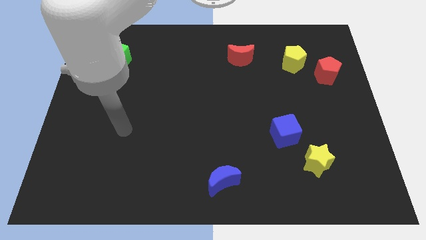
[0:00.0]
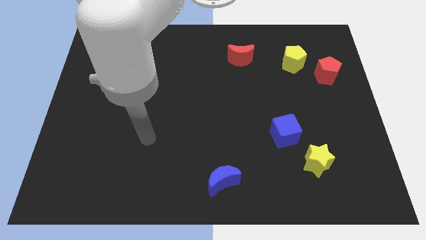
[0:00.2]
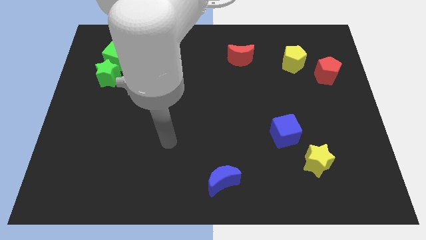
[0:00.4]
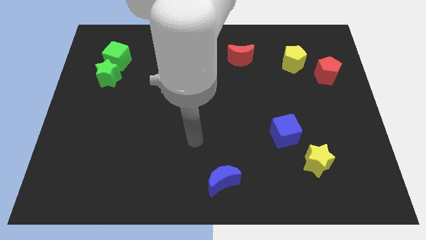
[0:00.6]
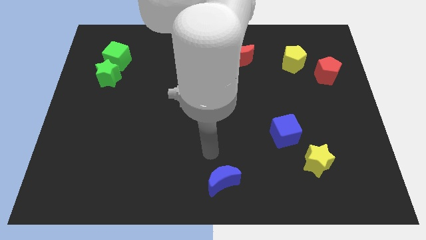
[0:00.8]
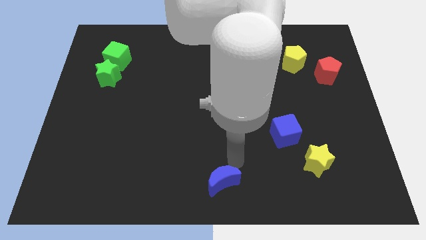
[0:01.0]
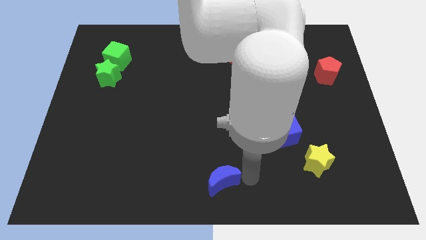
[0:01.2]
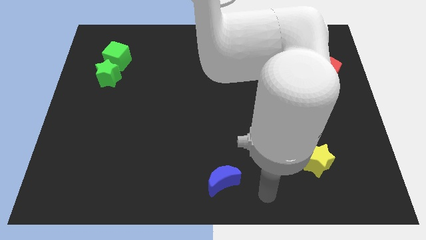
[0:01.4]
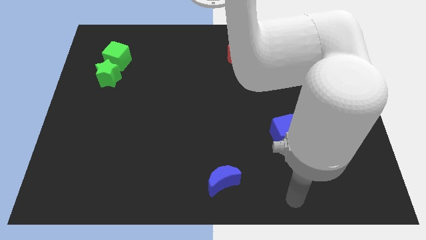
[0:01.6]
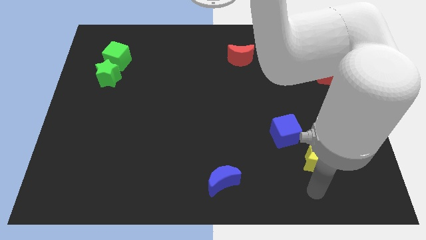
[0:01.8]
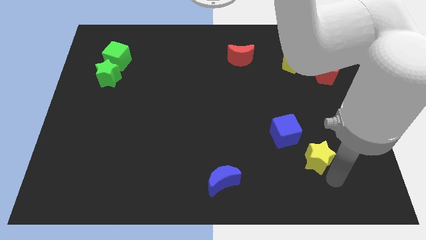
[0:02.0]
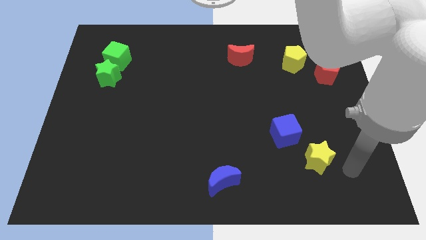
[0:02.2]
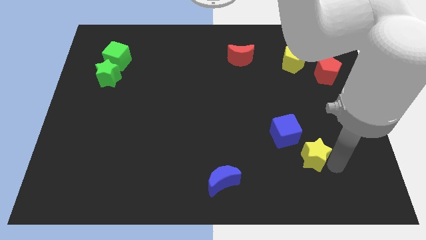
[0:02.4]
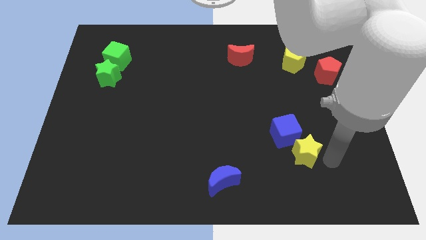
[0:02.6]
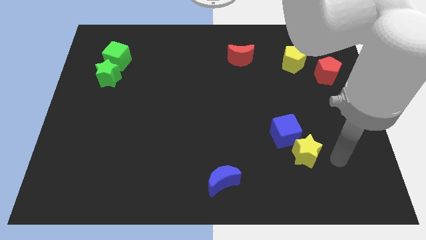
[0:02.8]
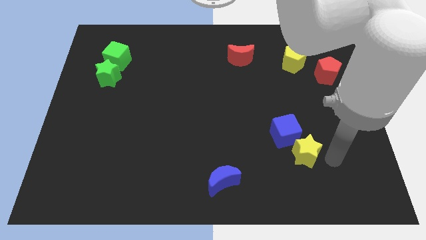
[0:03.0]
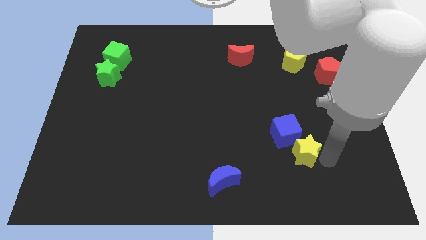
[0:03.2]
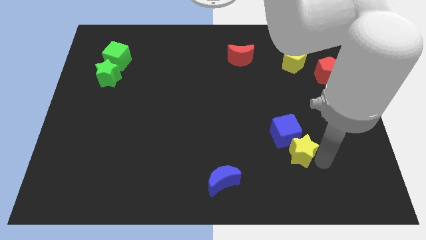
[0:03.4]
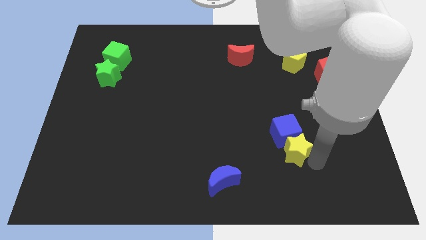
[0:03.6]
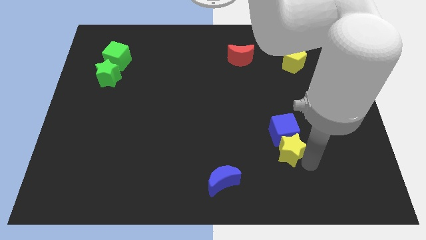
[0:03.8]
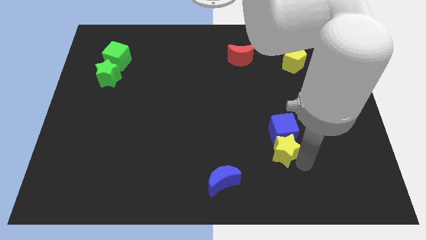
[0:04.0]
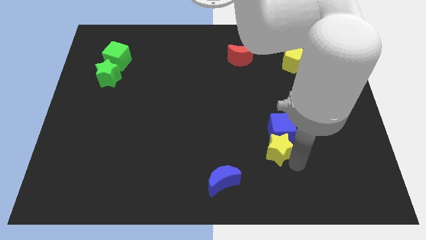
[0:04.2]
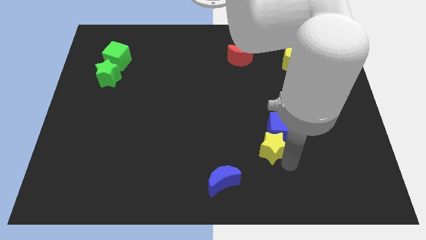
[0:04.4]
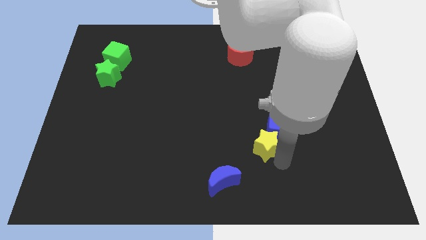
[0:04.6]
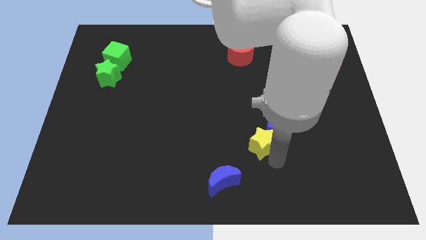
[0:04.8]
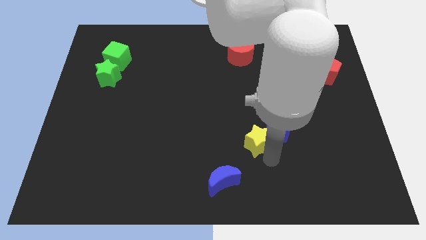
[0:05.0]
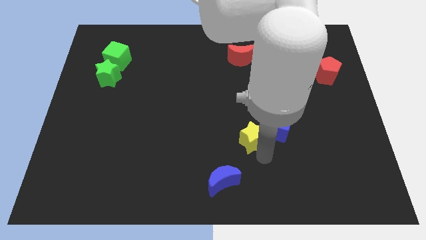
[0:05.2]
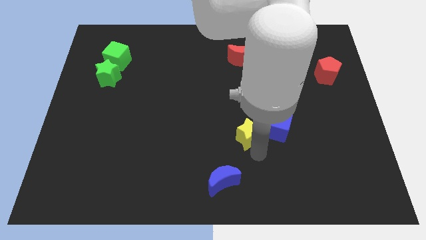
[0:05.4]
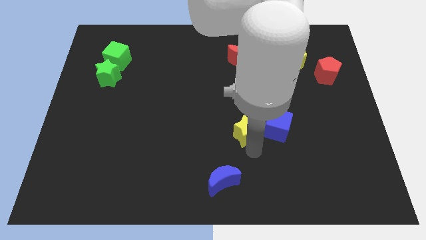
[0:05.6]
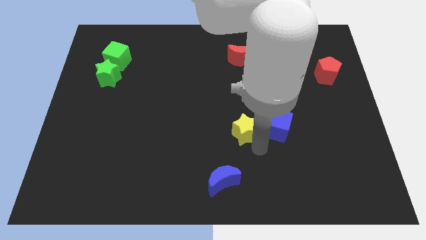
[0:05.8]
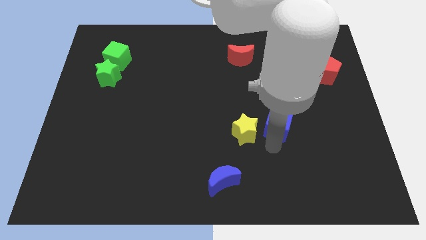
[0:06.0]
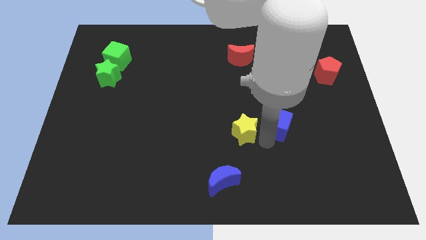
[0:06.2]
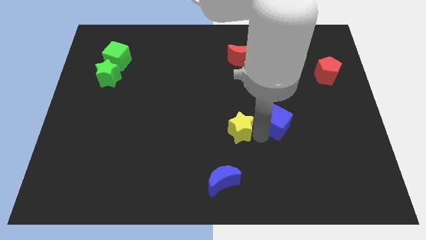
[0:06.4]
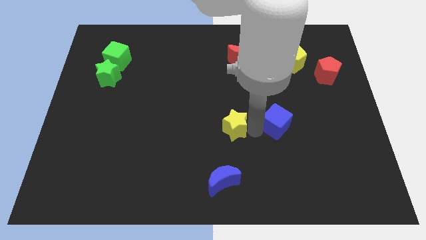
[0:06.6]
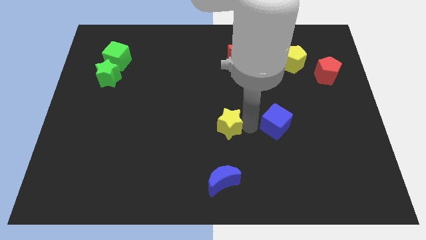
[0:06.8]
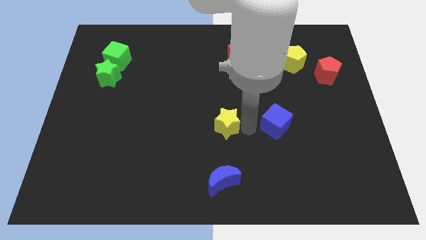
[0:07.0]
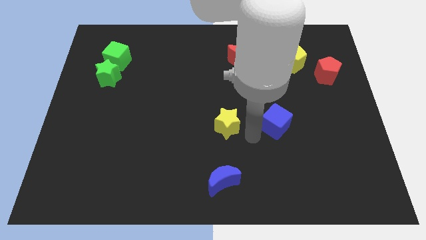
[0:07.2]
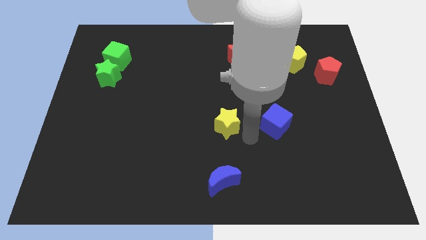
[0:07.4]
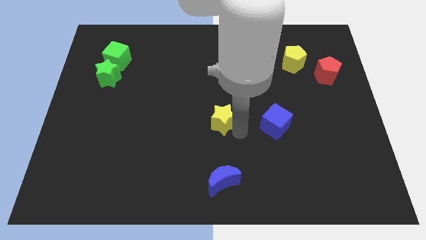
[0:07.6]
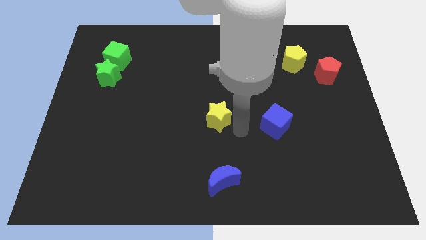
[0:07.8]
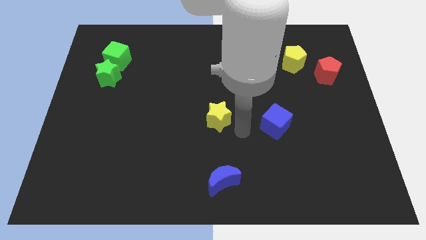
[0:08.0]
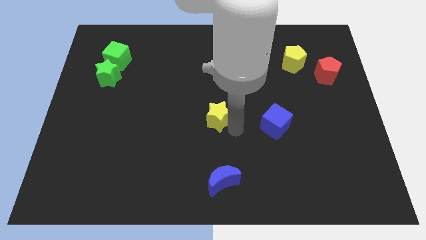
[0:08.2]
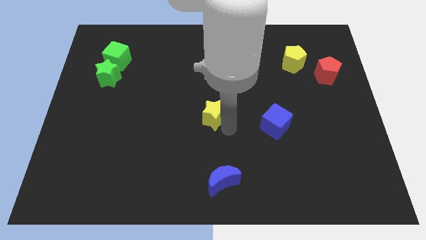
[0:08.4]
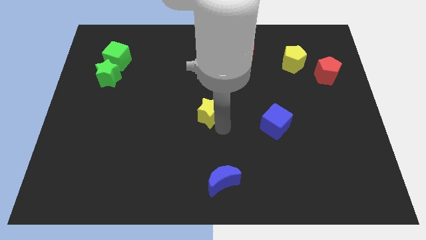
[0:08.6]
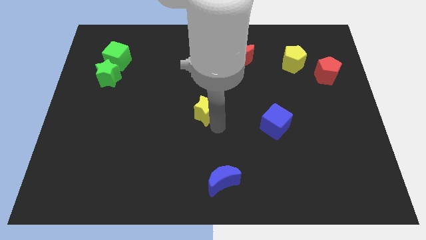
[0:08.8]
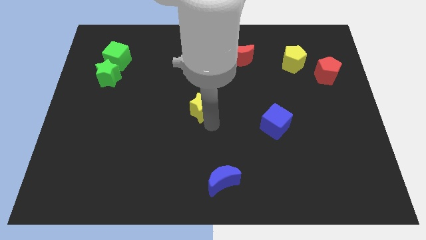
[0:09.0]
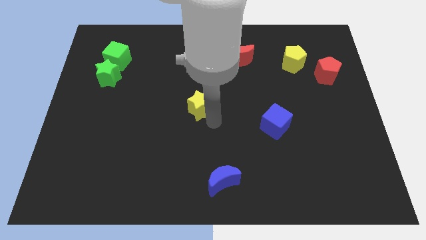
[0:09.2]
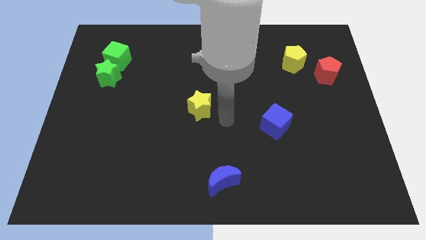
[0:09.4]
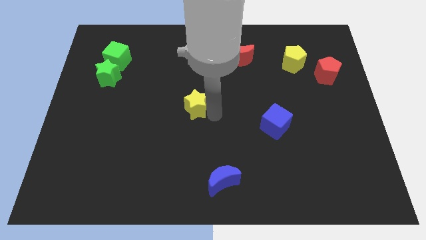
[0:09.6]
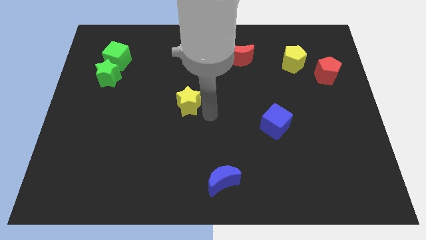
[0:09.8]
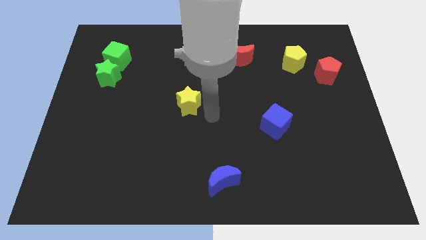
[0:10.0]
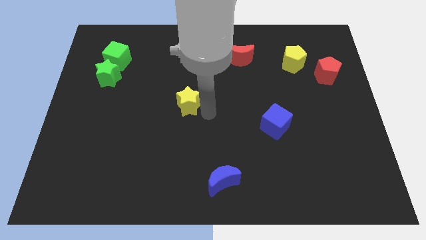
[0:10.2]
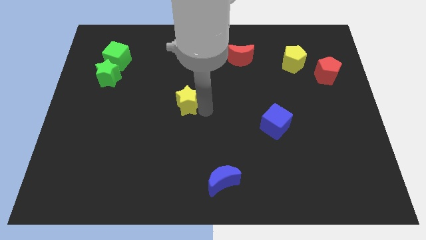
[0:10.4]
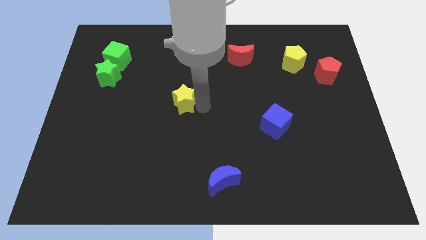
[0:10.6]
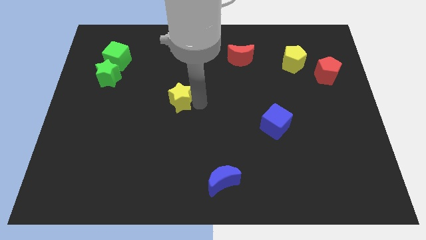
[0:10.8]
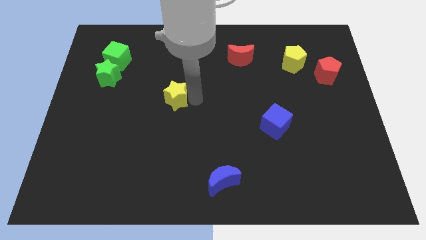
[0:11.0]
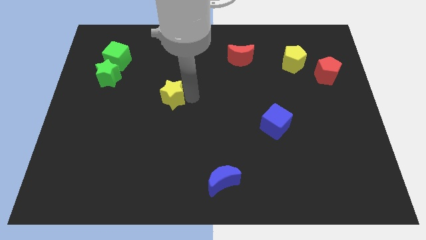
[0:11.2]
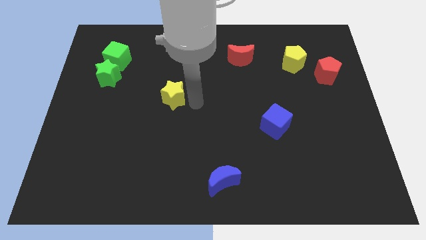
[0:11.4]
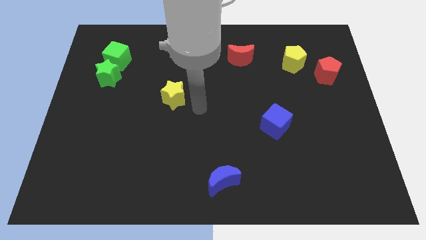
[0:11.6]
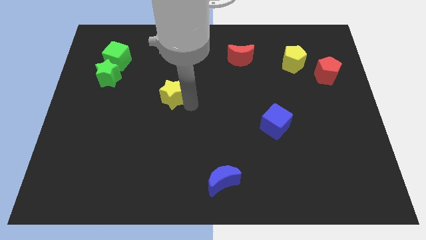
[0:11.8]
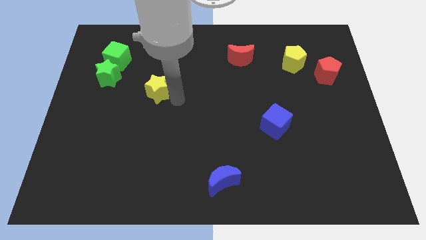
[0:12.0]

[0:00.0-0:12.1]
move the yellow star just right of the green star
